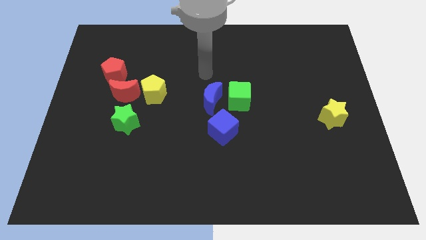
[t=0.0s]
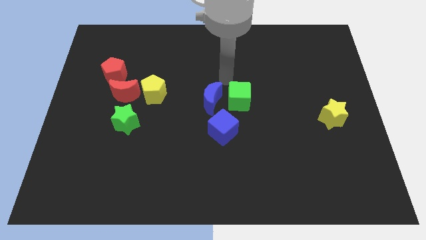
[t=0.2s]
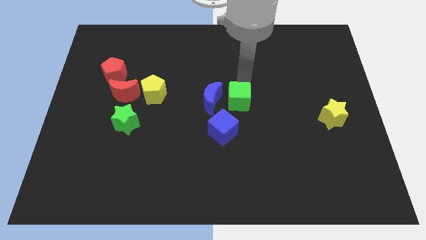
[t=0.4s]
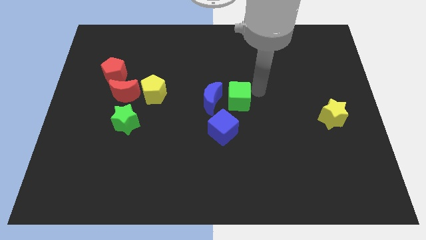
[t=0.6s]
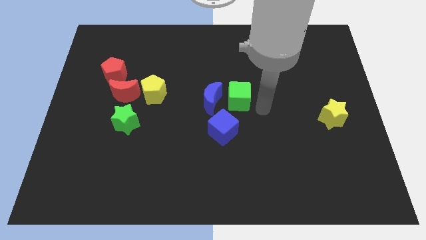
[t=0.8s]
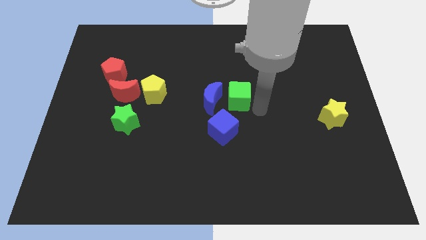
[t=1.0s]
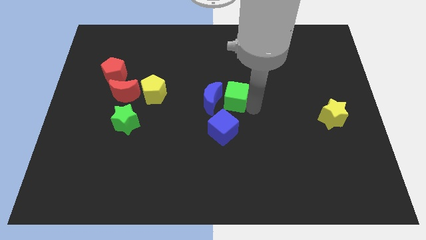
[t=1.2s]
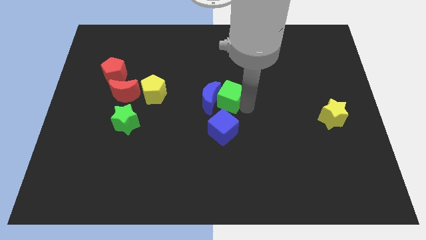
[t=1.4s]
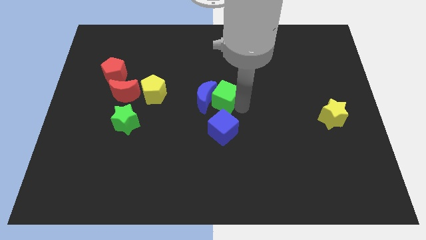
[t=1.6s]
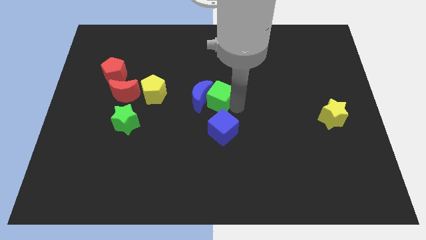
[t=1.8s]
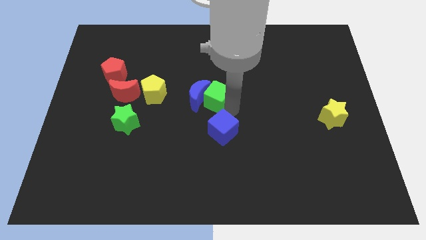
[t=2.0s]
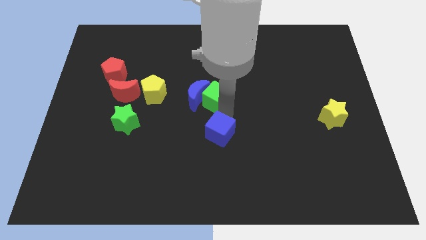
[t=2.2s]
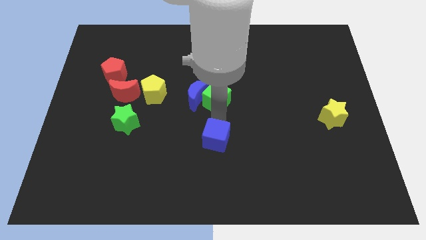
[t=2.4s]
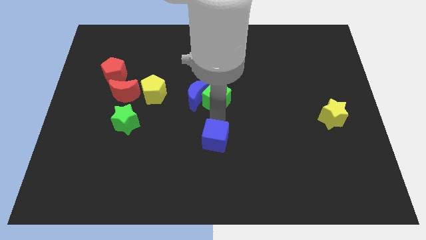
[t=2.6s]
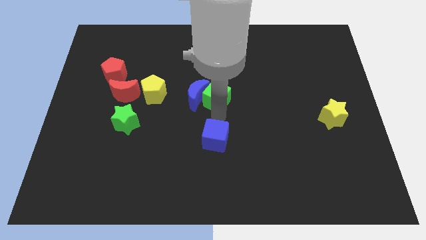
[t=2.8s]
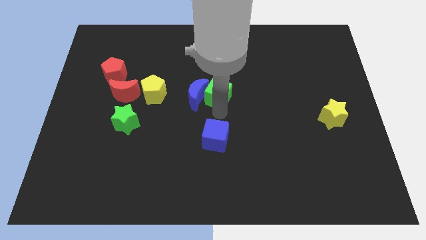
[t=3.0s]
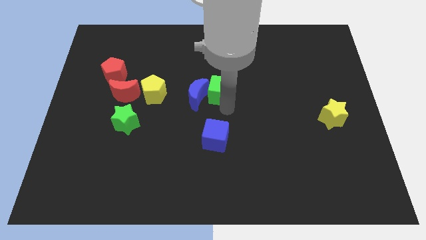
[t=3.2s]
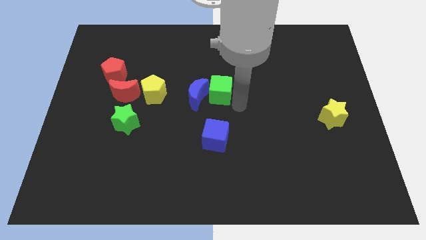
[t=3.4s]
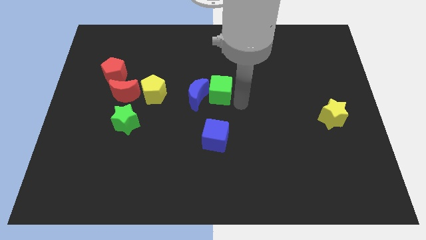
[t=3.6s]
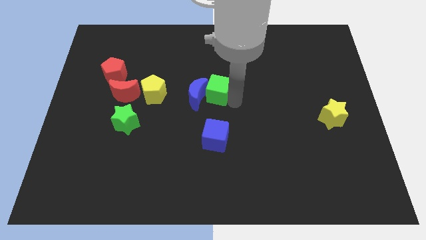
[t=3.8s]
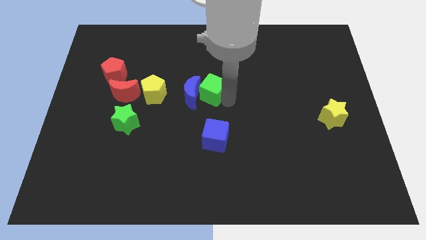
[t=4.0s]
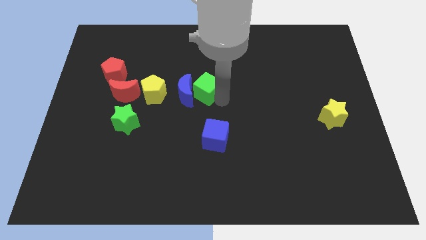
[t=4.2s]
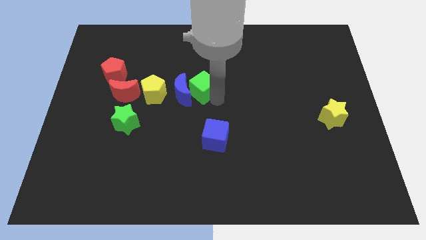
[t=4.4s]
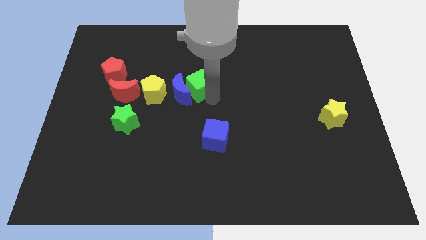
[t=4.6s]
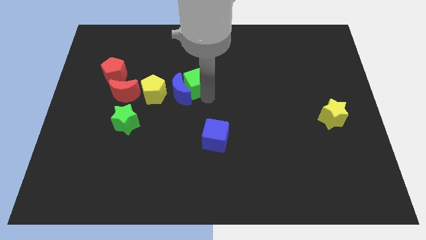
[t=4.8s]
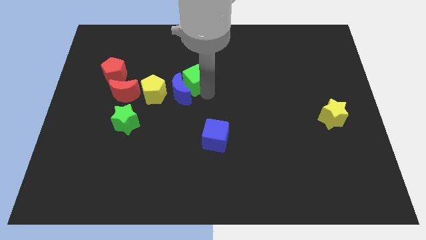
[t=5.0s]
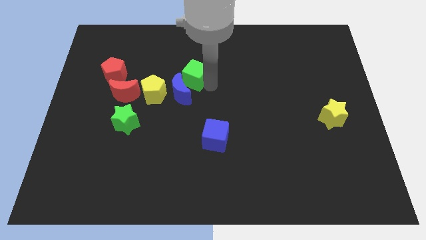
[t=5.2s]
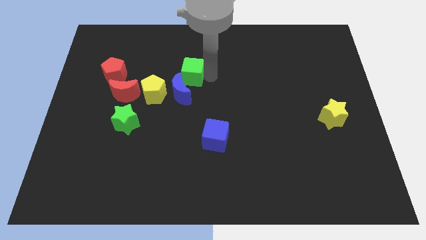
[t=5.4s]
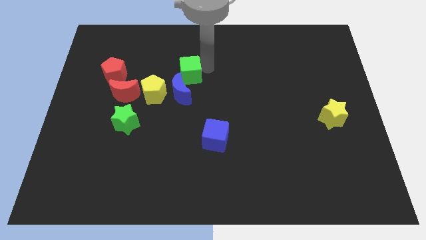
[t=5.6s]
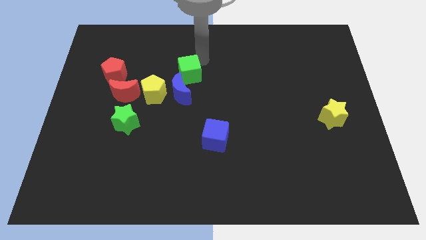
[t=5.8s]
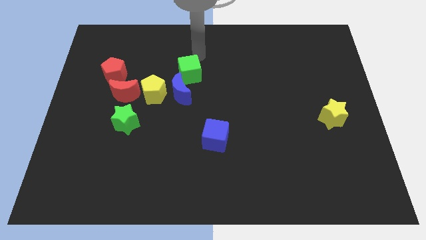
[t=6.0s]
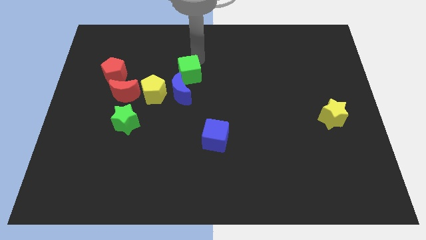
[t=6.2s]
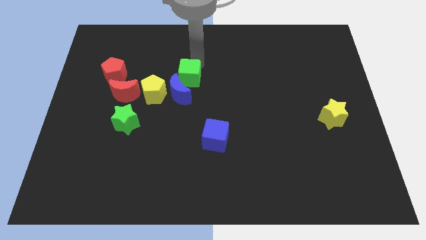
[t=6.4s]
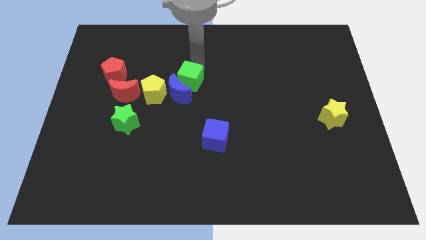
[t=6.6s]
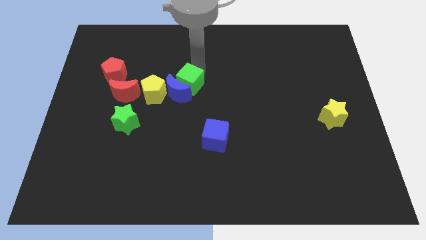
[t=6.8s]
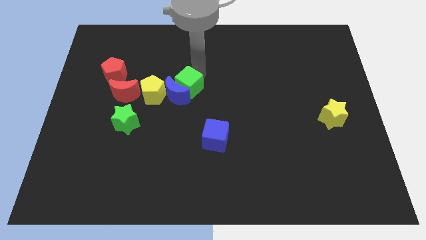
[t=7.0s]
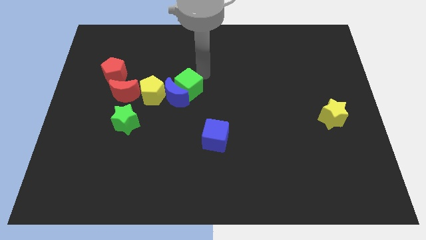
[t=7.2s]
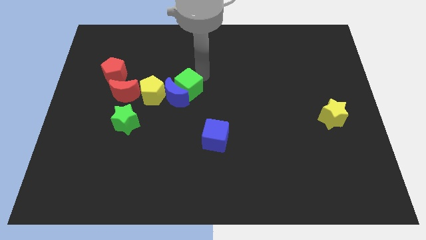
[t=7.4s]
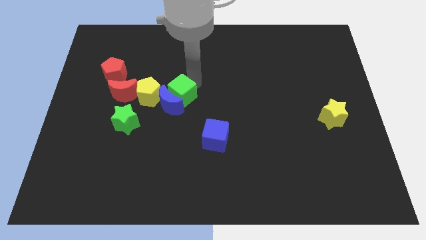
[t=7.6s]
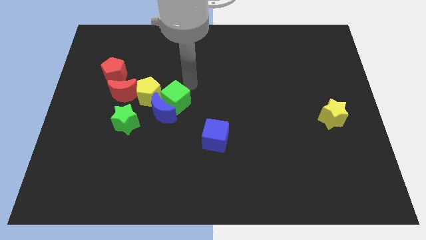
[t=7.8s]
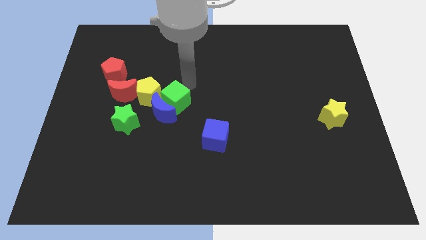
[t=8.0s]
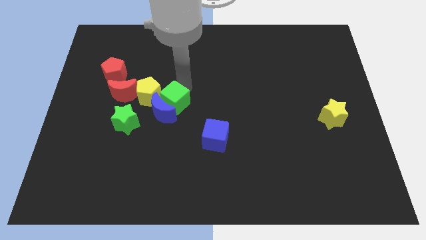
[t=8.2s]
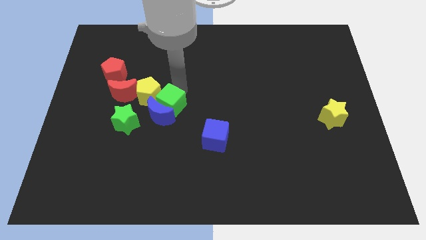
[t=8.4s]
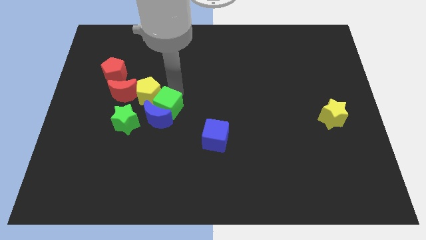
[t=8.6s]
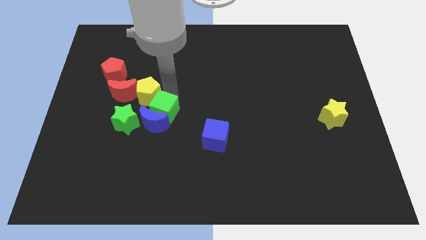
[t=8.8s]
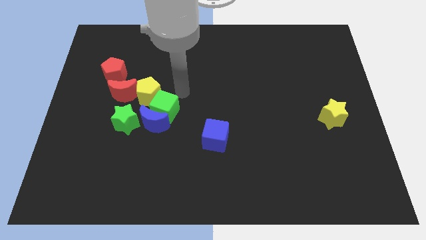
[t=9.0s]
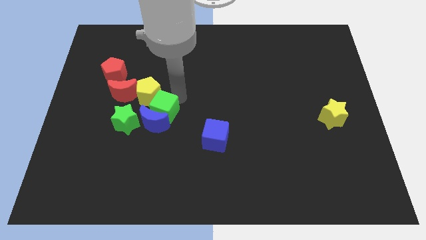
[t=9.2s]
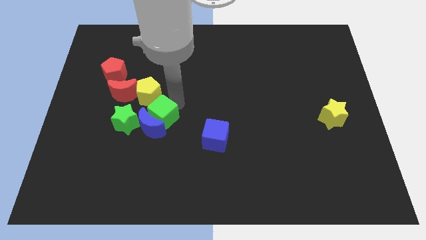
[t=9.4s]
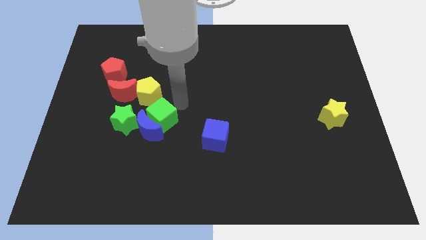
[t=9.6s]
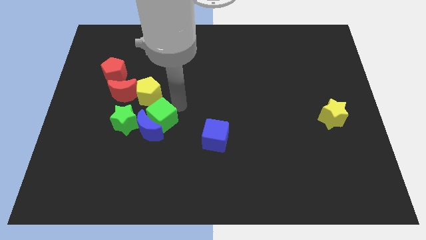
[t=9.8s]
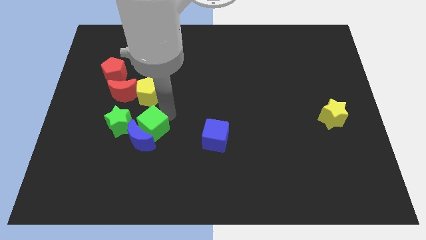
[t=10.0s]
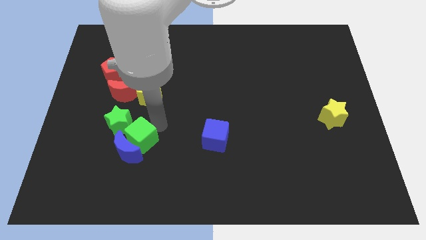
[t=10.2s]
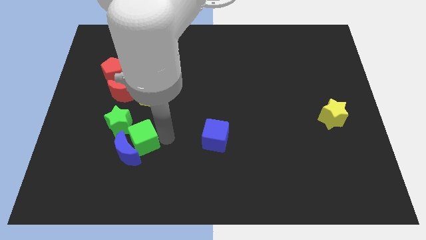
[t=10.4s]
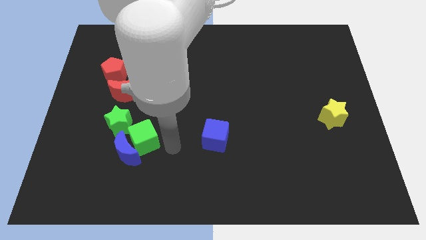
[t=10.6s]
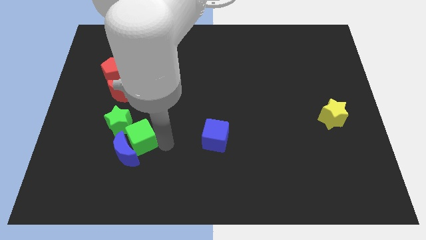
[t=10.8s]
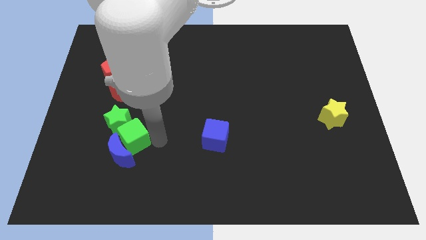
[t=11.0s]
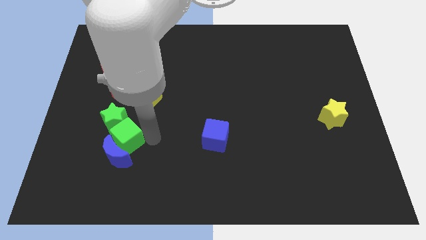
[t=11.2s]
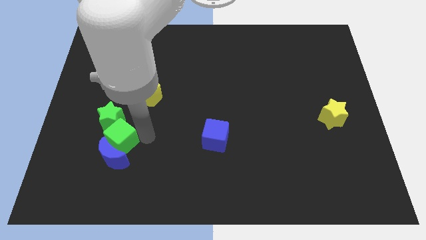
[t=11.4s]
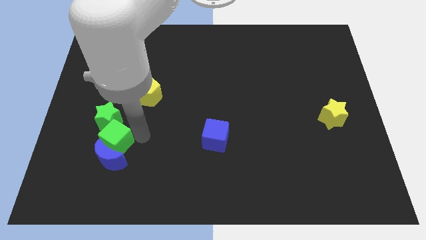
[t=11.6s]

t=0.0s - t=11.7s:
move the green cube left

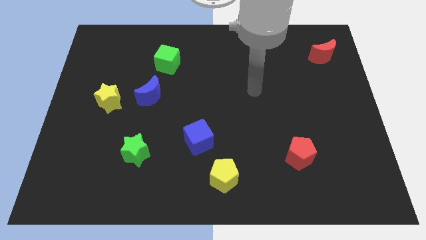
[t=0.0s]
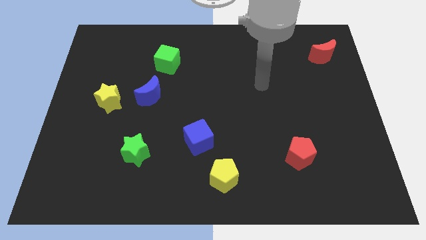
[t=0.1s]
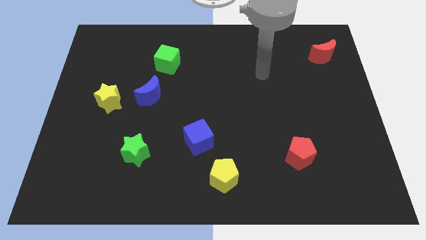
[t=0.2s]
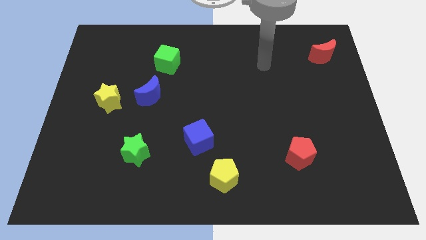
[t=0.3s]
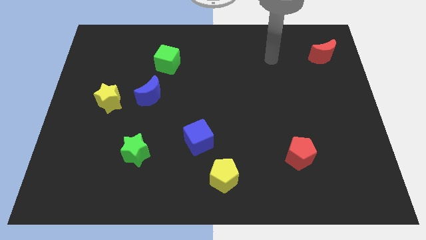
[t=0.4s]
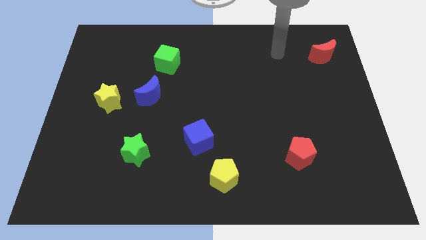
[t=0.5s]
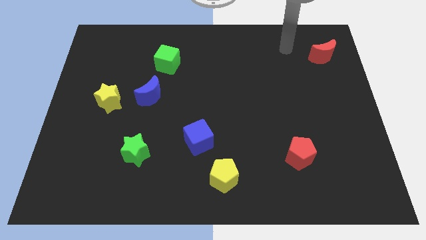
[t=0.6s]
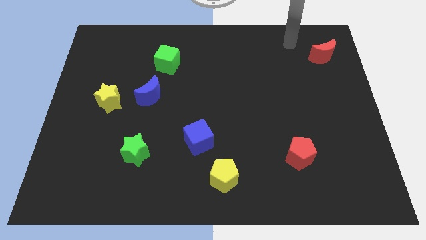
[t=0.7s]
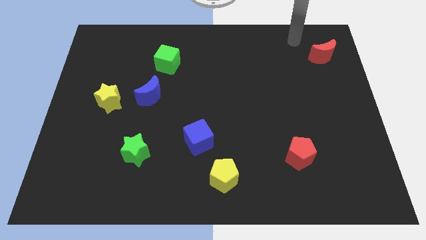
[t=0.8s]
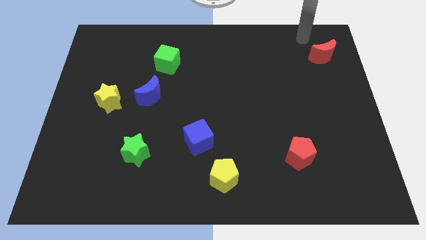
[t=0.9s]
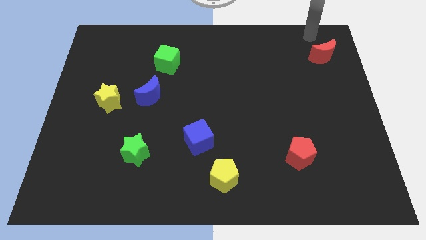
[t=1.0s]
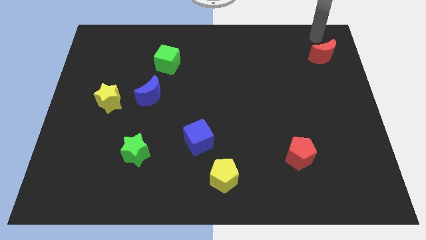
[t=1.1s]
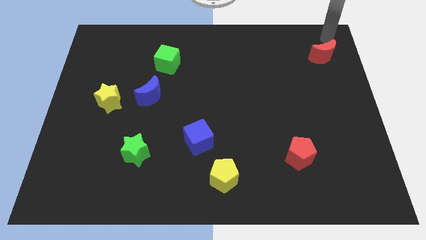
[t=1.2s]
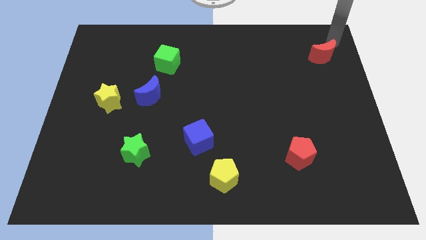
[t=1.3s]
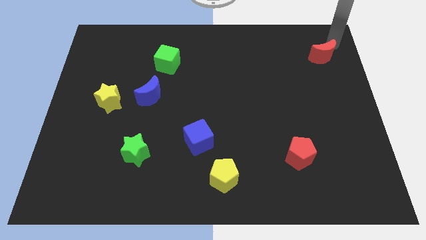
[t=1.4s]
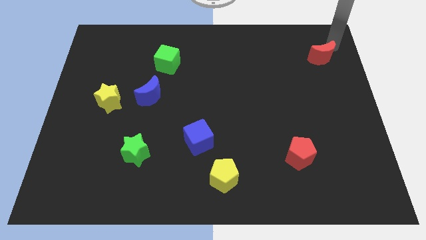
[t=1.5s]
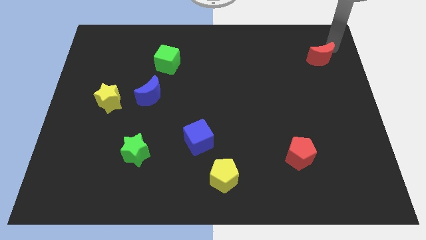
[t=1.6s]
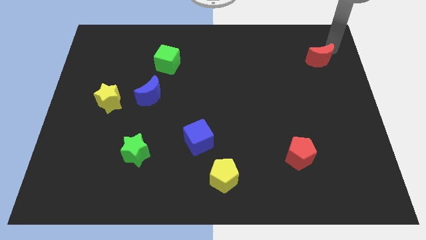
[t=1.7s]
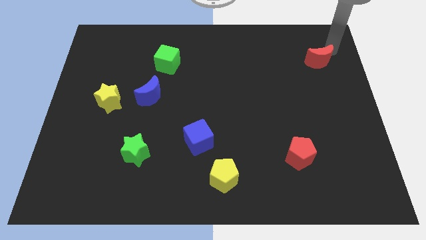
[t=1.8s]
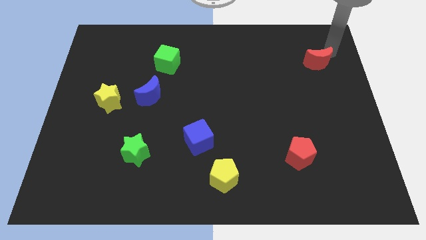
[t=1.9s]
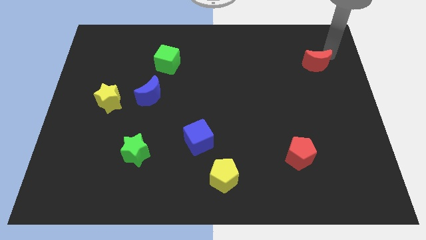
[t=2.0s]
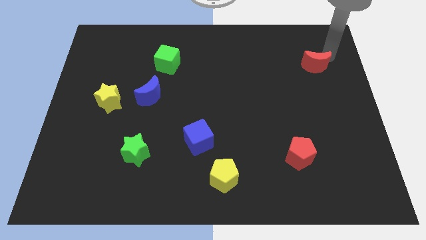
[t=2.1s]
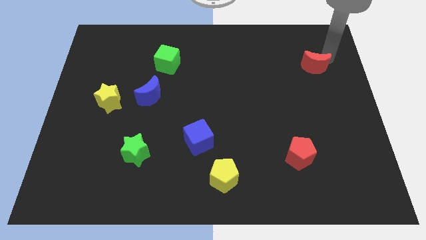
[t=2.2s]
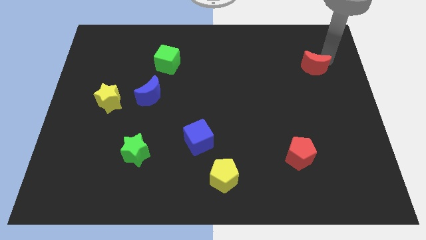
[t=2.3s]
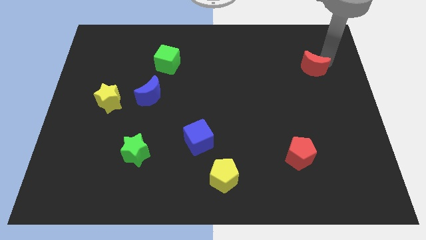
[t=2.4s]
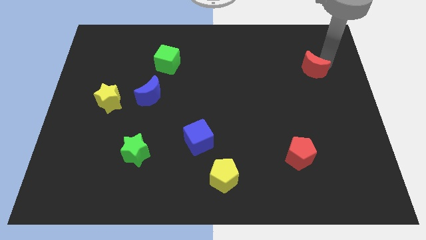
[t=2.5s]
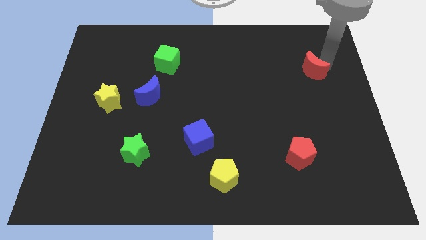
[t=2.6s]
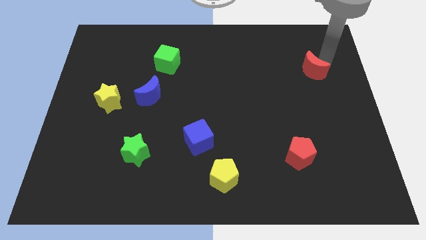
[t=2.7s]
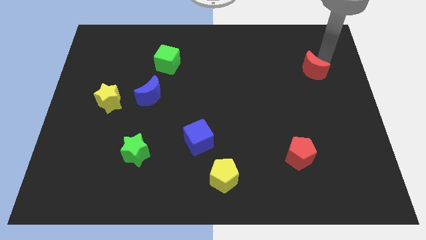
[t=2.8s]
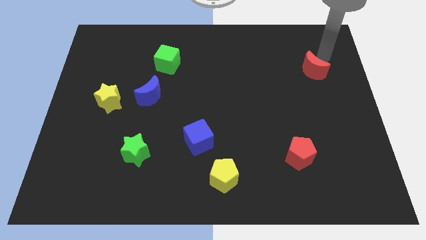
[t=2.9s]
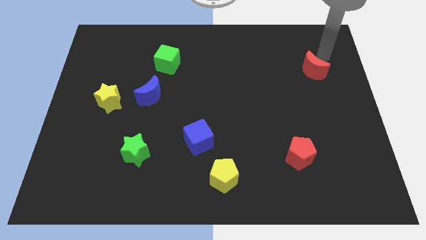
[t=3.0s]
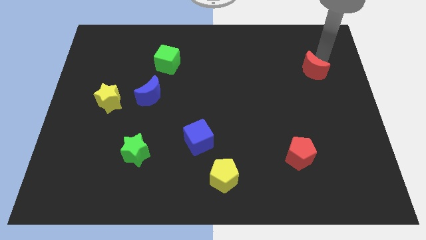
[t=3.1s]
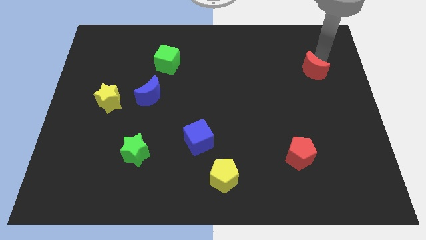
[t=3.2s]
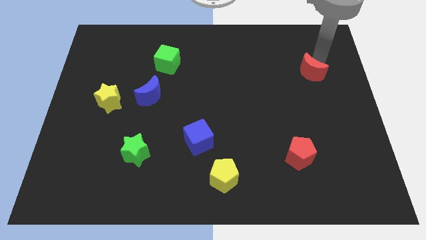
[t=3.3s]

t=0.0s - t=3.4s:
push the red moon down and then left a bit
